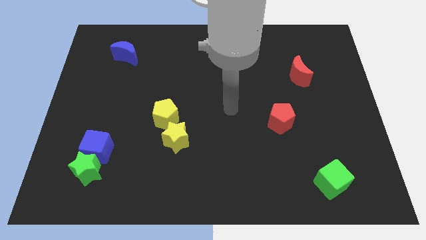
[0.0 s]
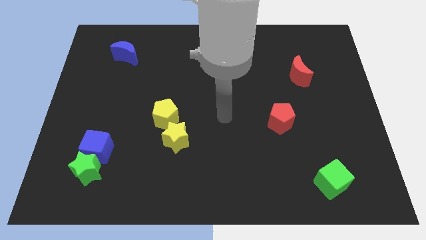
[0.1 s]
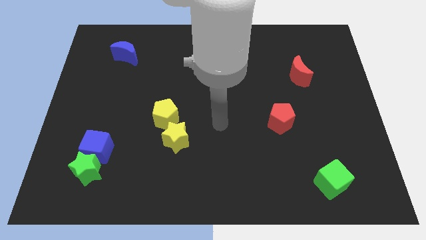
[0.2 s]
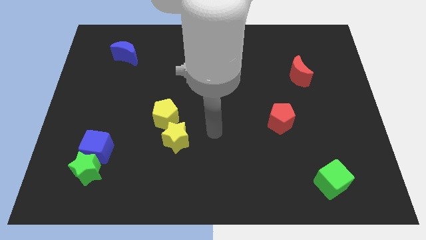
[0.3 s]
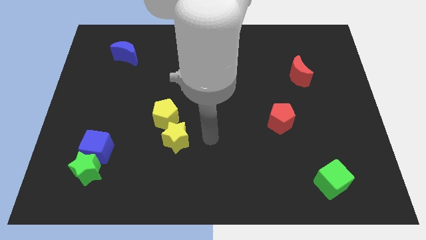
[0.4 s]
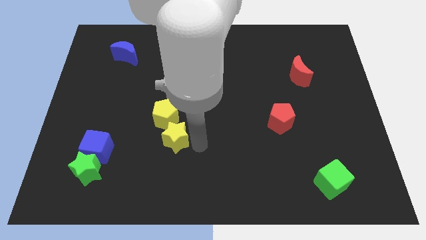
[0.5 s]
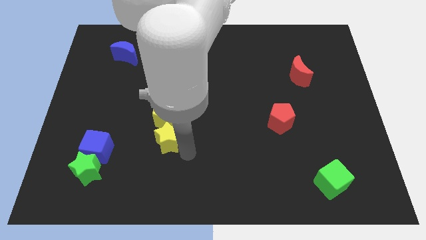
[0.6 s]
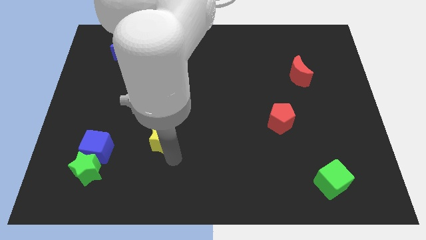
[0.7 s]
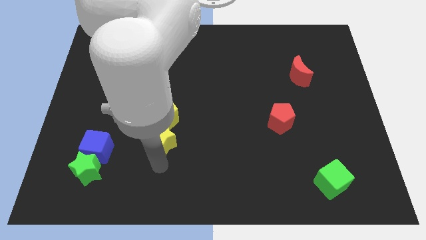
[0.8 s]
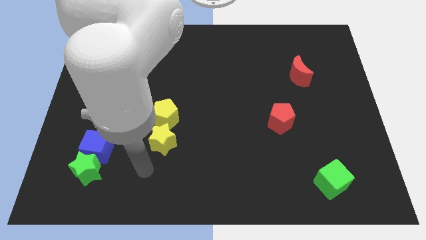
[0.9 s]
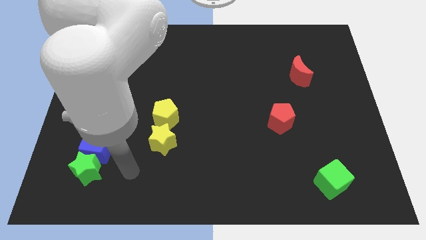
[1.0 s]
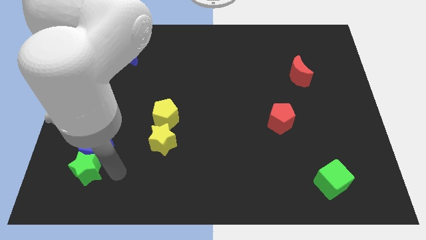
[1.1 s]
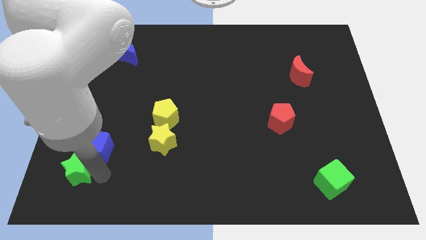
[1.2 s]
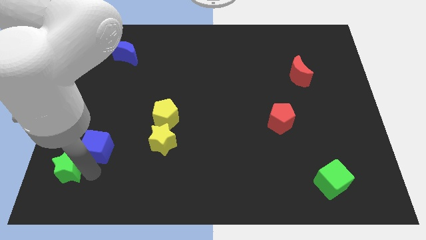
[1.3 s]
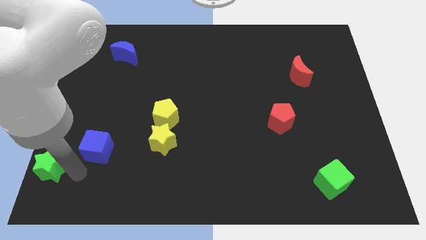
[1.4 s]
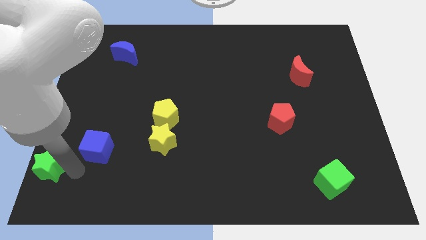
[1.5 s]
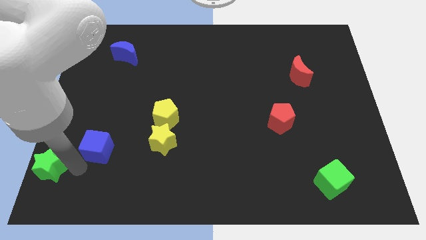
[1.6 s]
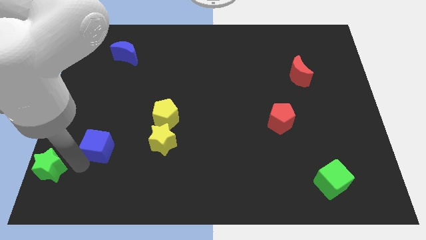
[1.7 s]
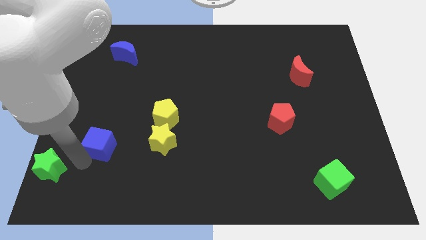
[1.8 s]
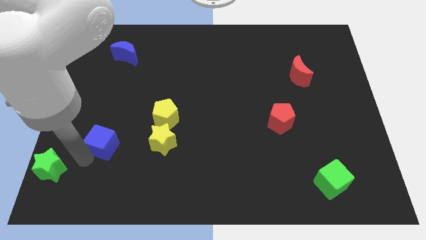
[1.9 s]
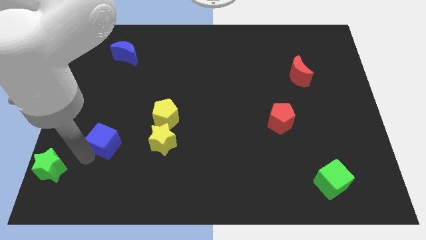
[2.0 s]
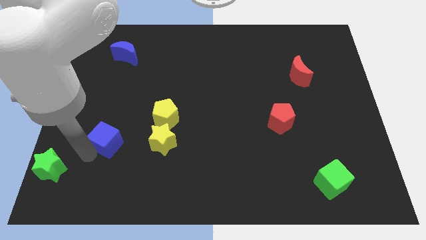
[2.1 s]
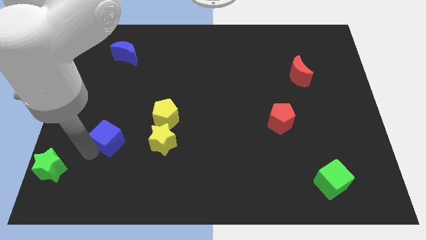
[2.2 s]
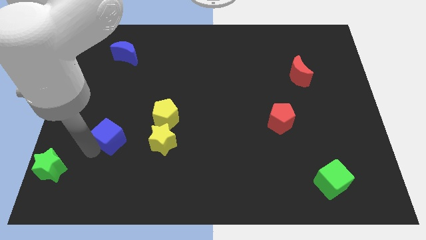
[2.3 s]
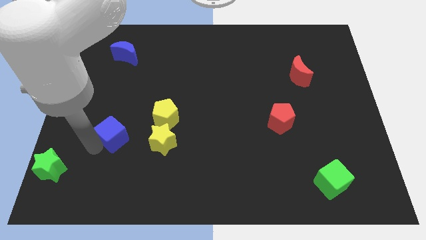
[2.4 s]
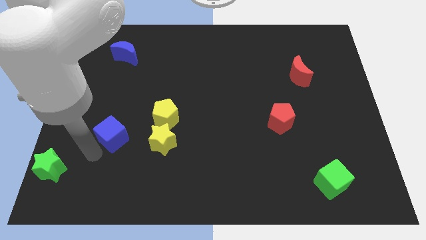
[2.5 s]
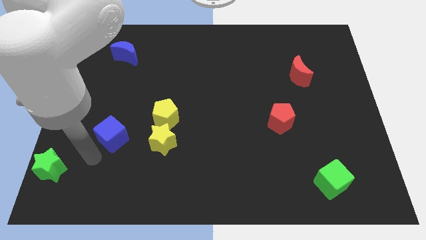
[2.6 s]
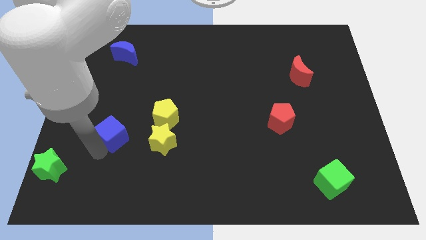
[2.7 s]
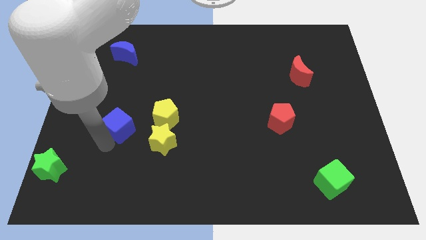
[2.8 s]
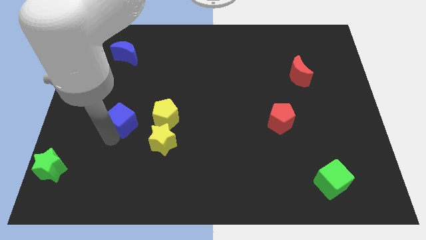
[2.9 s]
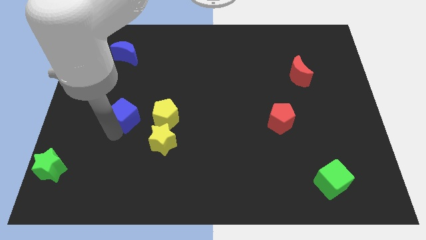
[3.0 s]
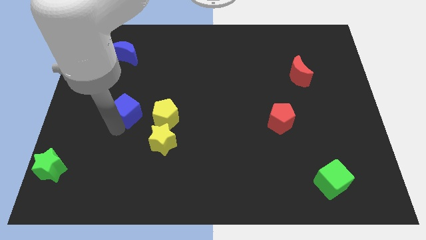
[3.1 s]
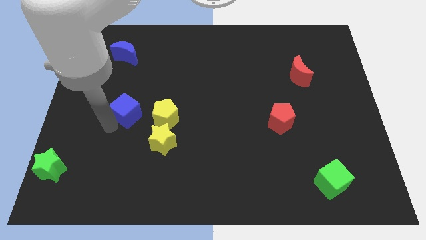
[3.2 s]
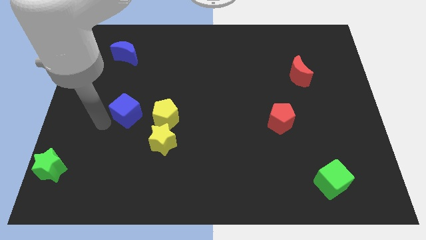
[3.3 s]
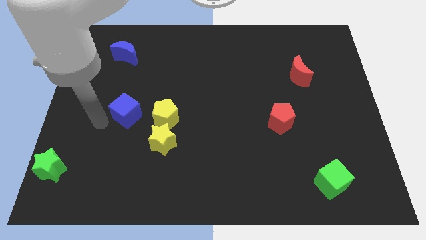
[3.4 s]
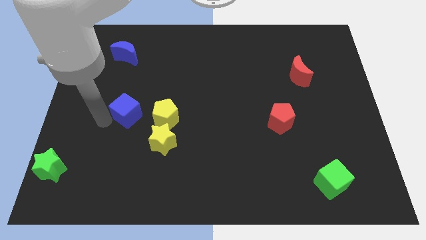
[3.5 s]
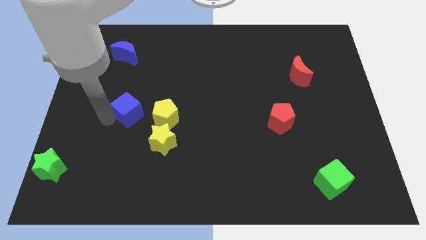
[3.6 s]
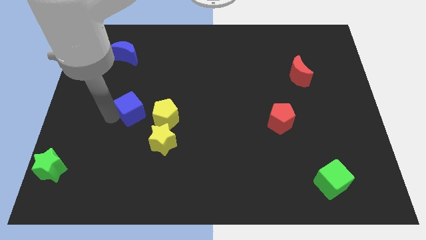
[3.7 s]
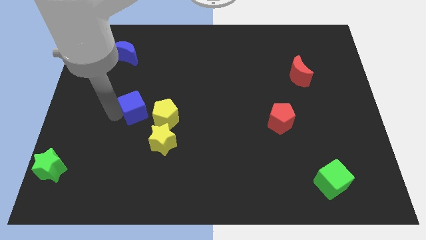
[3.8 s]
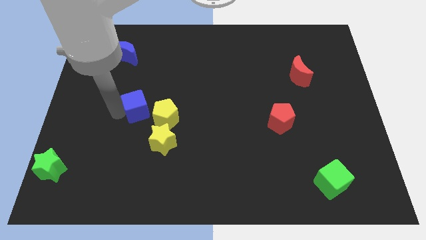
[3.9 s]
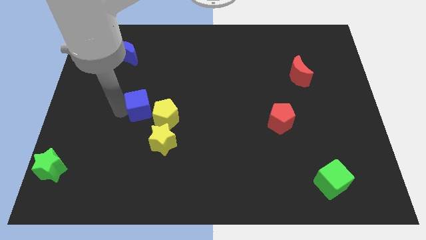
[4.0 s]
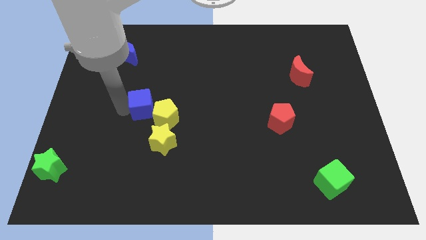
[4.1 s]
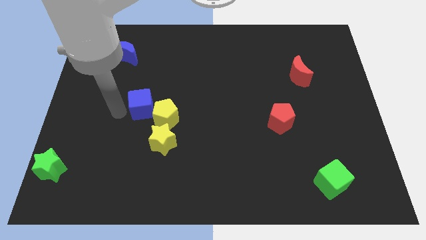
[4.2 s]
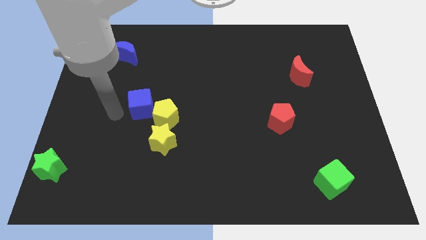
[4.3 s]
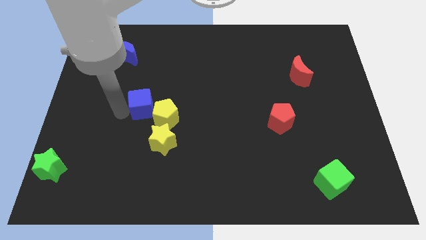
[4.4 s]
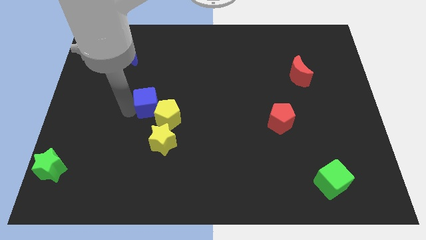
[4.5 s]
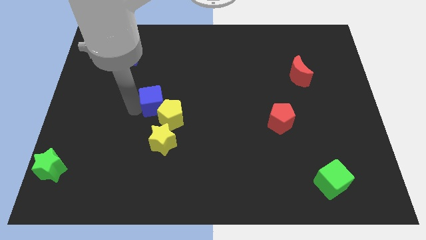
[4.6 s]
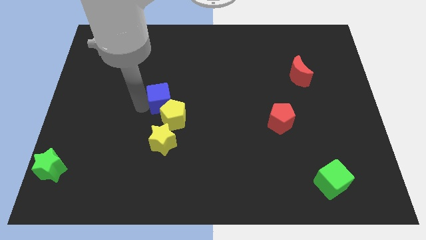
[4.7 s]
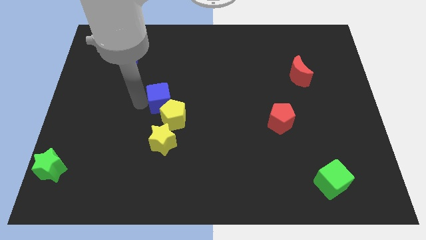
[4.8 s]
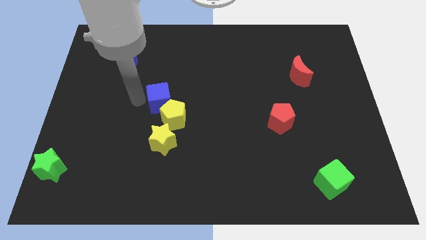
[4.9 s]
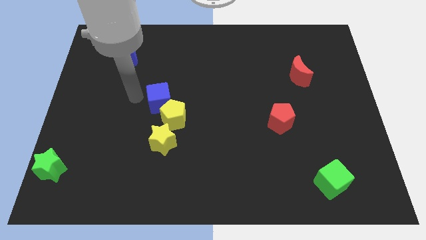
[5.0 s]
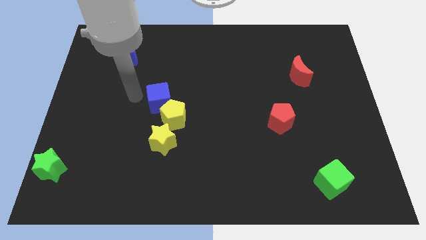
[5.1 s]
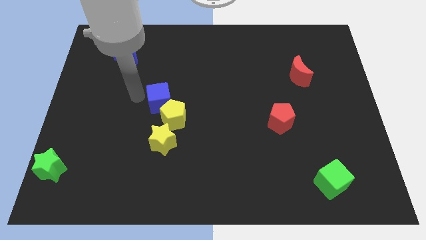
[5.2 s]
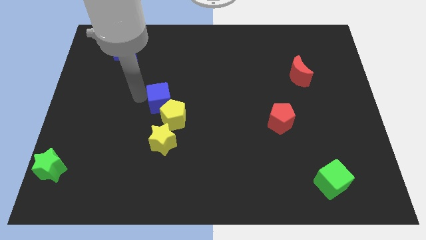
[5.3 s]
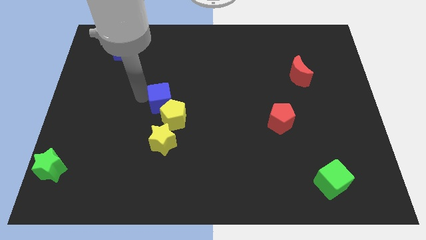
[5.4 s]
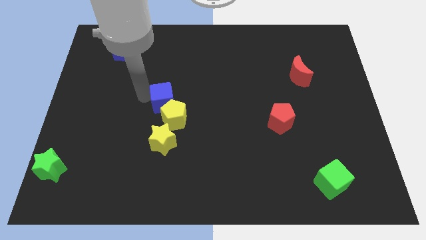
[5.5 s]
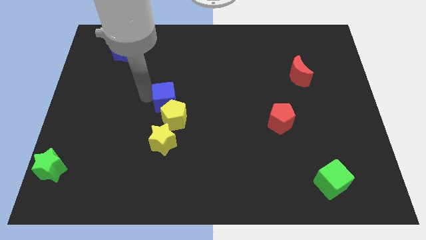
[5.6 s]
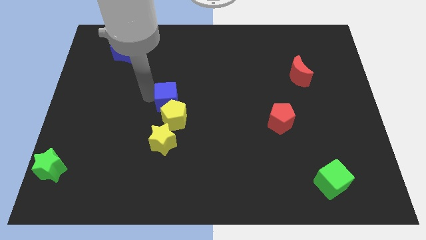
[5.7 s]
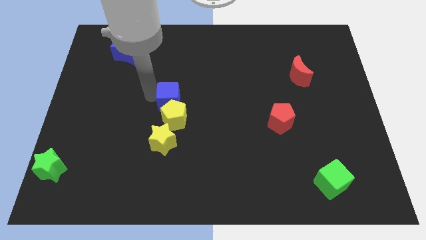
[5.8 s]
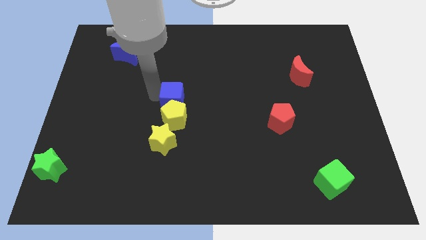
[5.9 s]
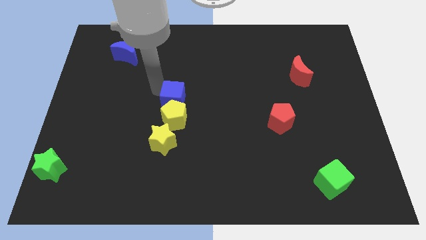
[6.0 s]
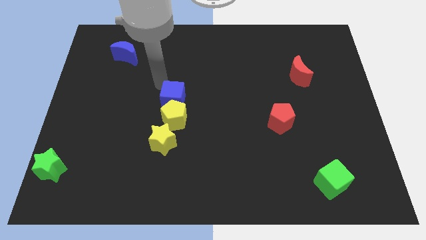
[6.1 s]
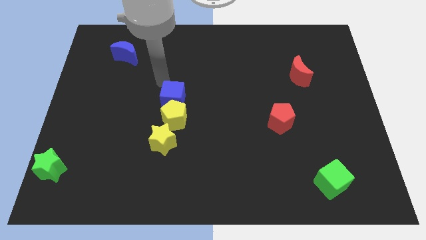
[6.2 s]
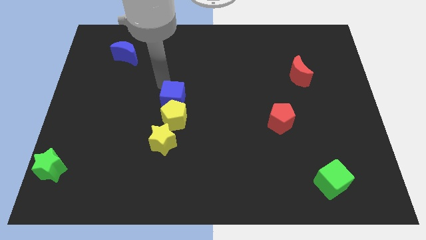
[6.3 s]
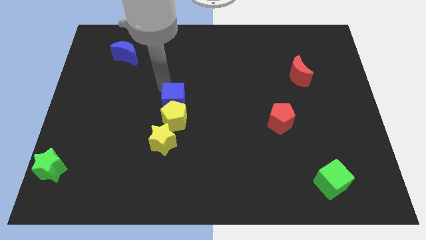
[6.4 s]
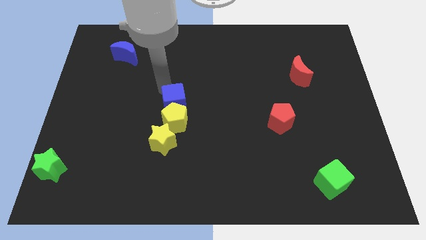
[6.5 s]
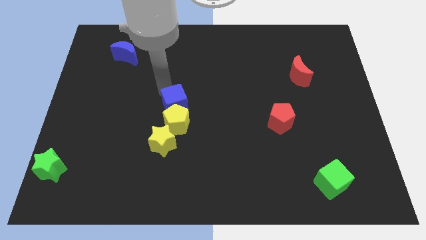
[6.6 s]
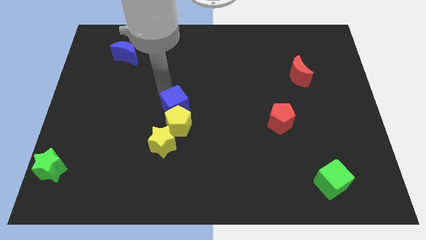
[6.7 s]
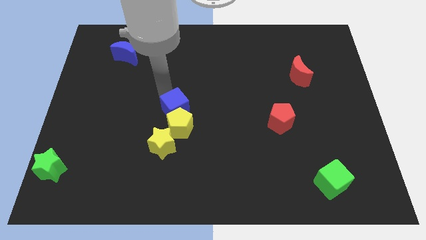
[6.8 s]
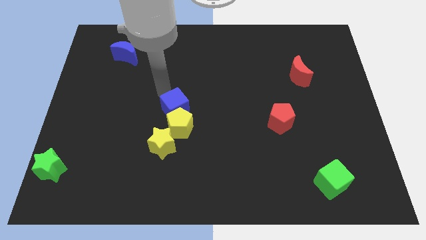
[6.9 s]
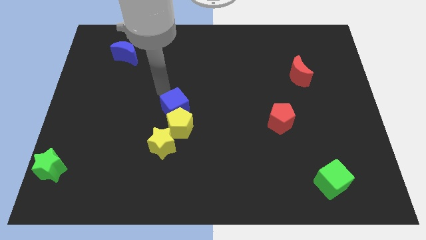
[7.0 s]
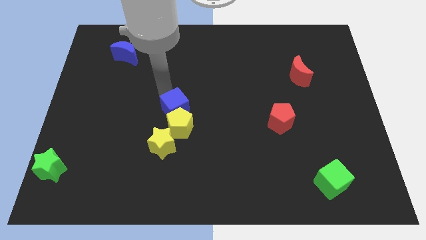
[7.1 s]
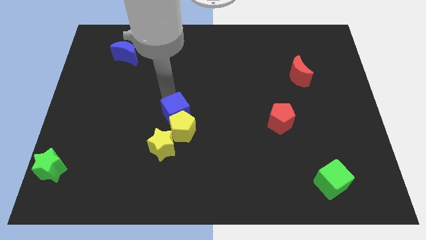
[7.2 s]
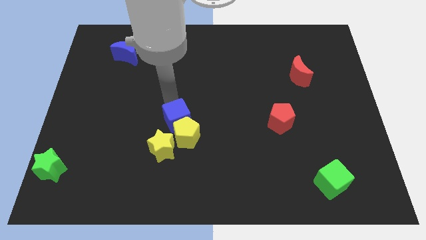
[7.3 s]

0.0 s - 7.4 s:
slide the blue cube to the top right side of the yellow star

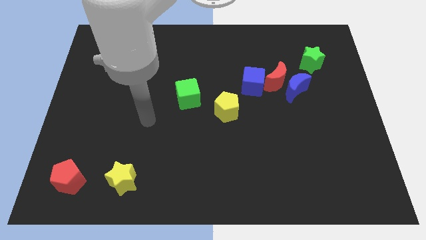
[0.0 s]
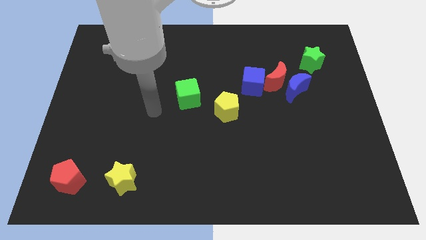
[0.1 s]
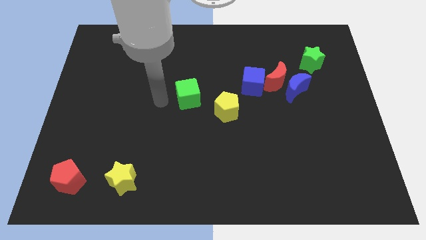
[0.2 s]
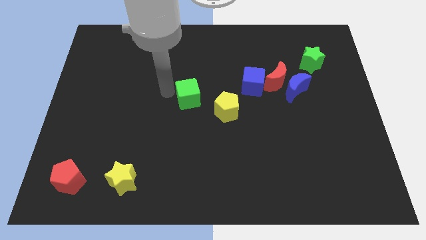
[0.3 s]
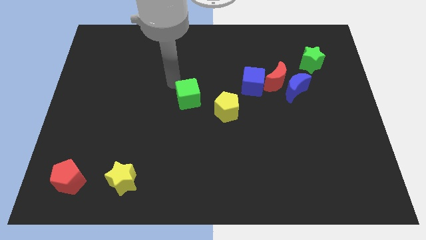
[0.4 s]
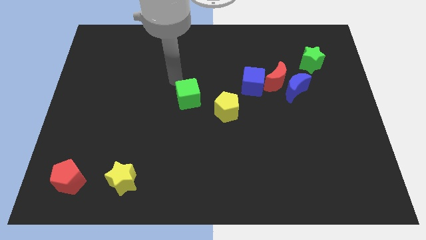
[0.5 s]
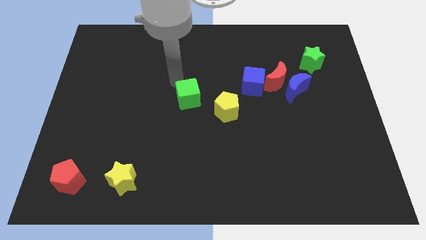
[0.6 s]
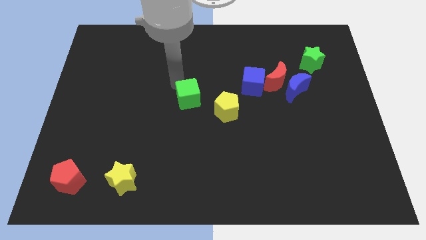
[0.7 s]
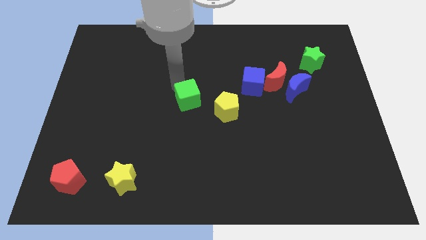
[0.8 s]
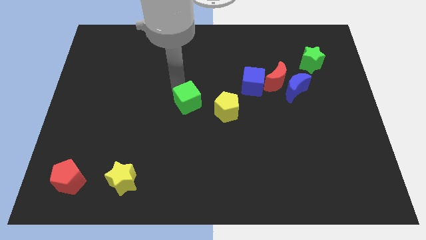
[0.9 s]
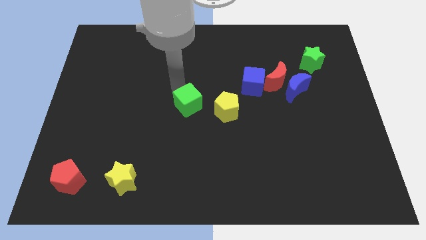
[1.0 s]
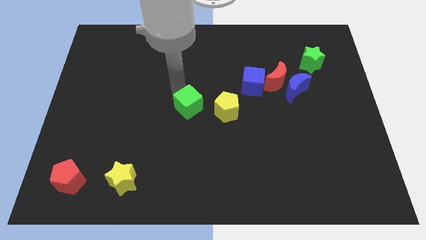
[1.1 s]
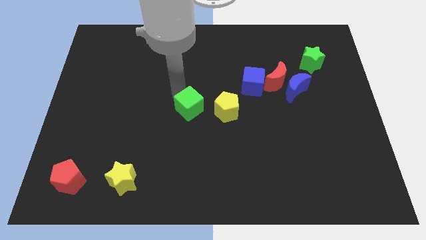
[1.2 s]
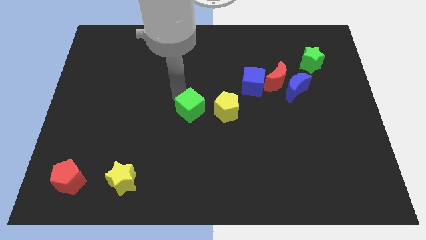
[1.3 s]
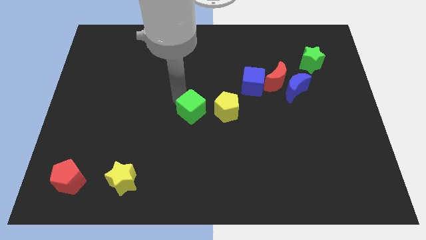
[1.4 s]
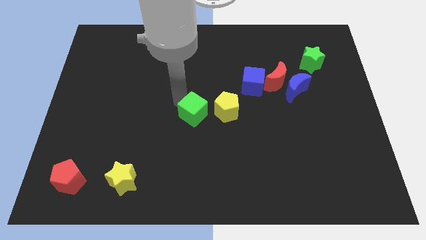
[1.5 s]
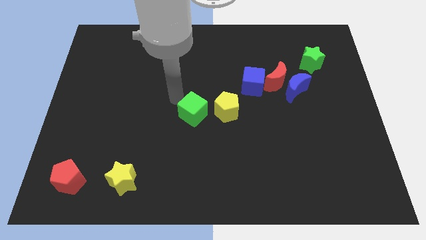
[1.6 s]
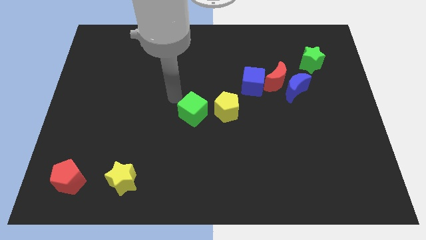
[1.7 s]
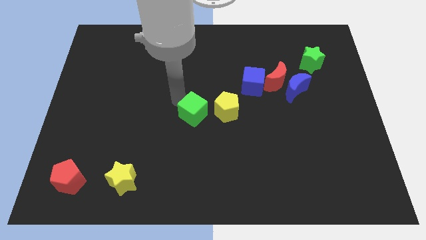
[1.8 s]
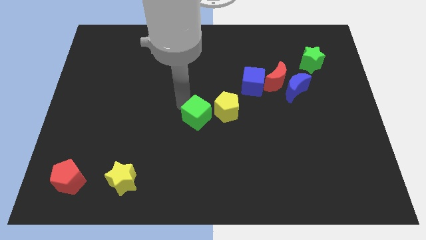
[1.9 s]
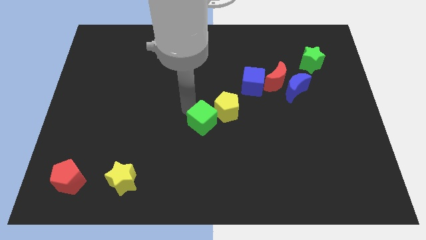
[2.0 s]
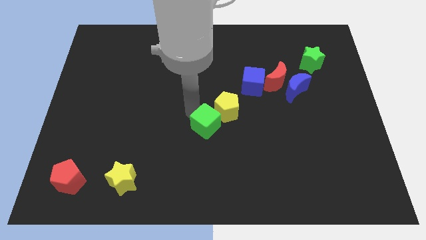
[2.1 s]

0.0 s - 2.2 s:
put the green cube to the bottom of the yellow pentagon
